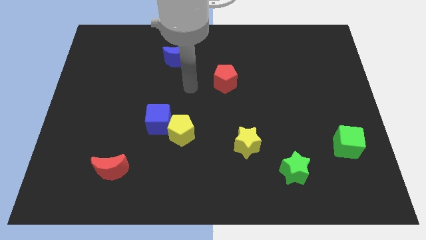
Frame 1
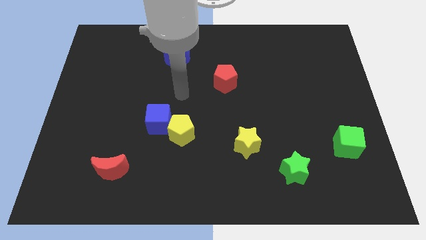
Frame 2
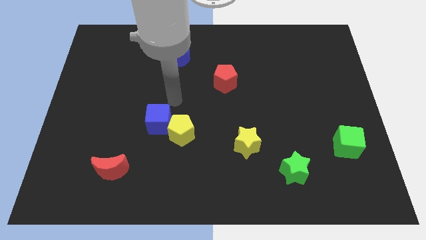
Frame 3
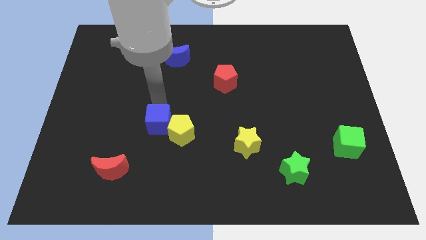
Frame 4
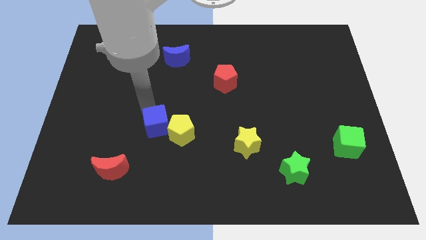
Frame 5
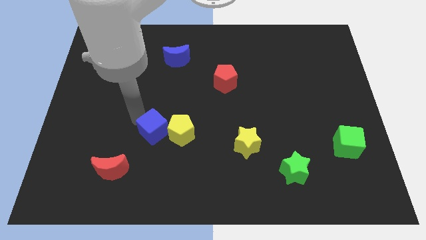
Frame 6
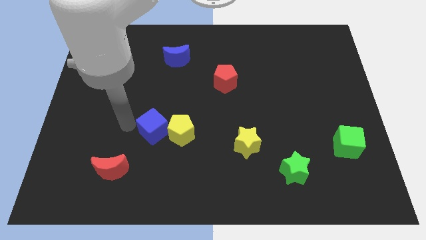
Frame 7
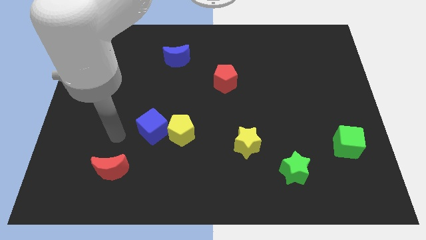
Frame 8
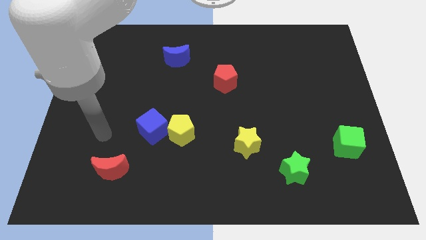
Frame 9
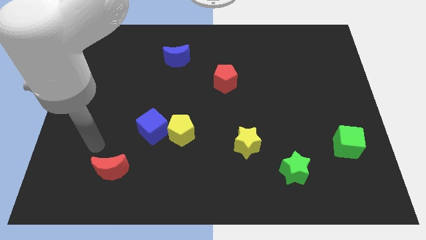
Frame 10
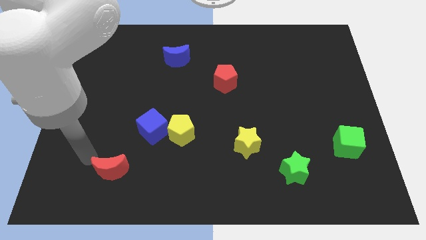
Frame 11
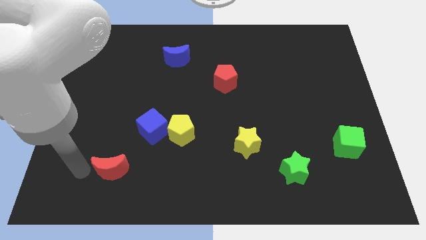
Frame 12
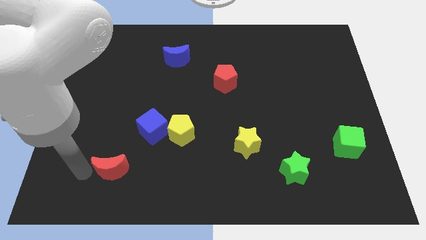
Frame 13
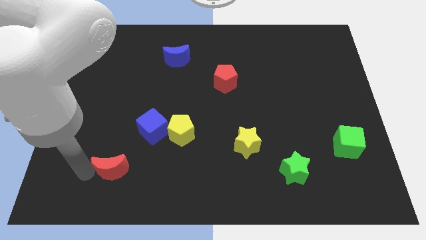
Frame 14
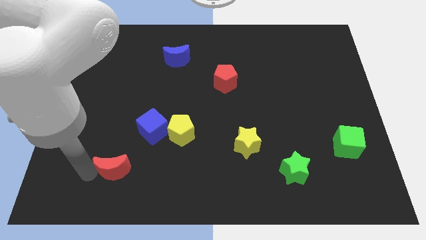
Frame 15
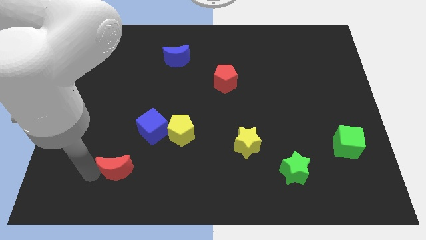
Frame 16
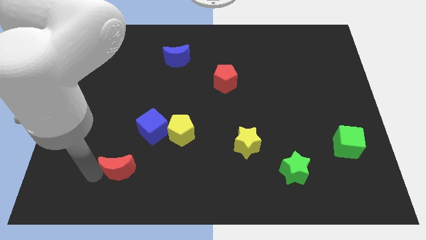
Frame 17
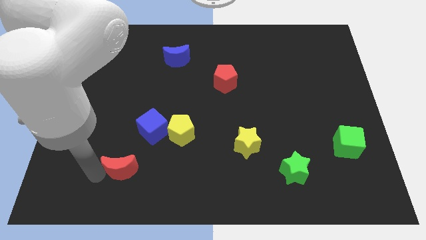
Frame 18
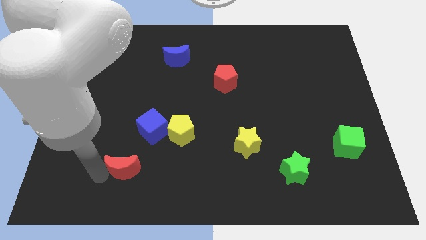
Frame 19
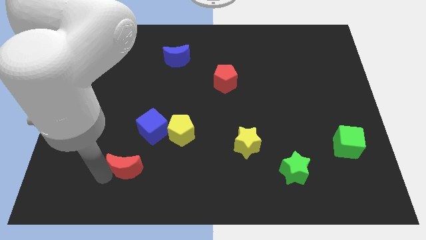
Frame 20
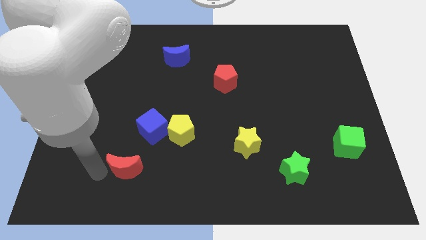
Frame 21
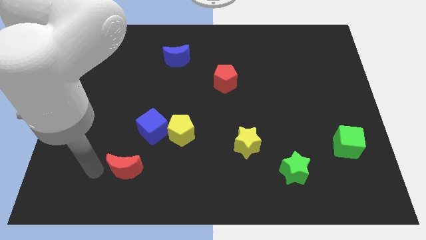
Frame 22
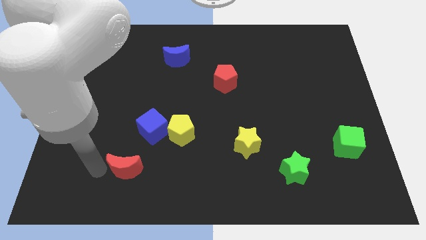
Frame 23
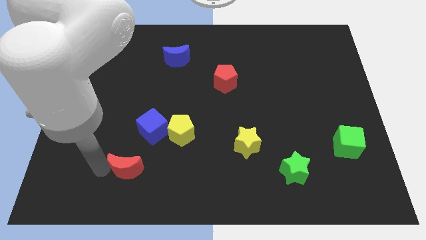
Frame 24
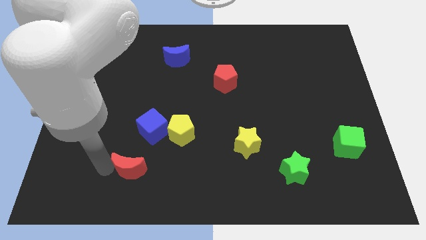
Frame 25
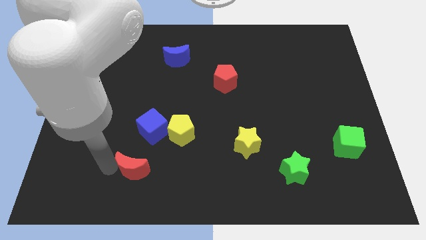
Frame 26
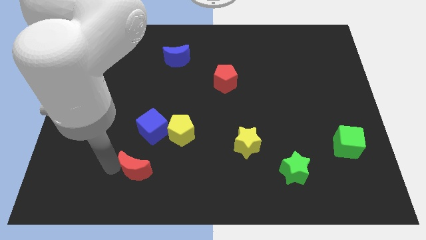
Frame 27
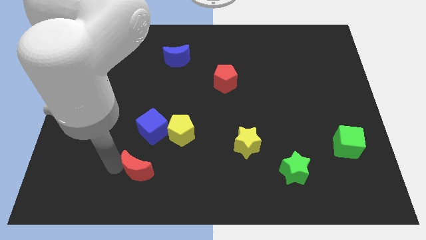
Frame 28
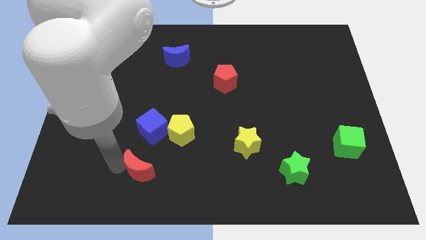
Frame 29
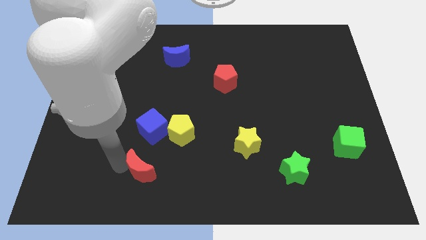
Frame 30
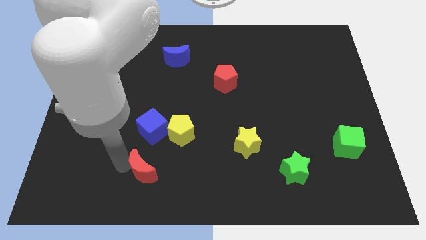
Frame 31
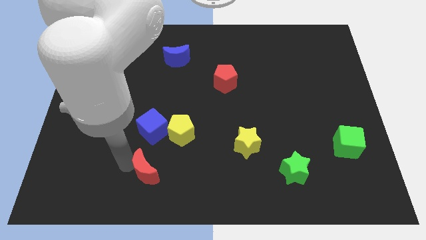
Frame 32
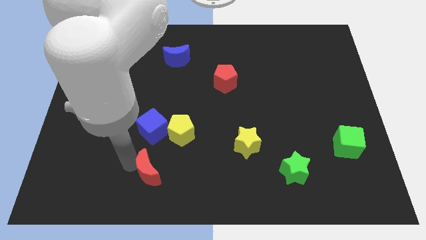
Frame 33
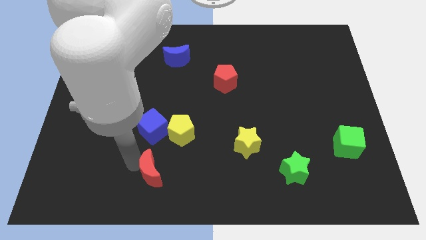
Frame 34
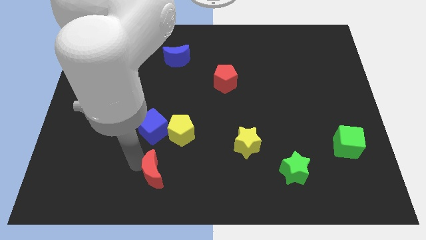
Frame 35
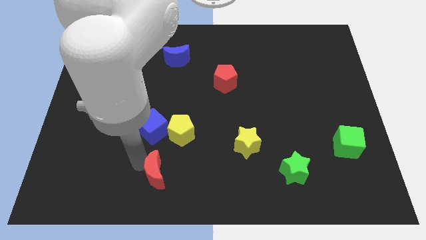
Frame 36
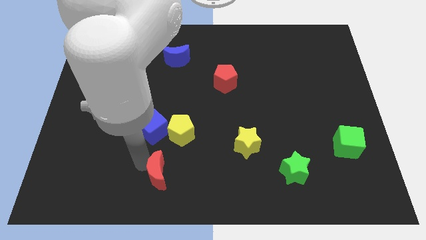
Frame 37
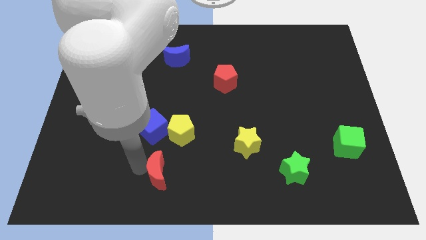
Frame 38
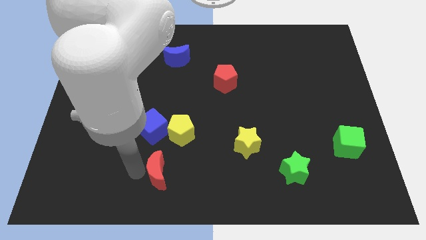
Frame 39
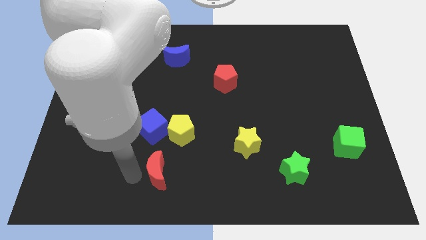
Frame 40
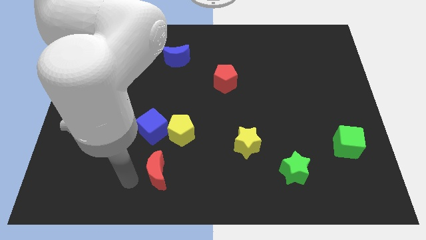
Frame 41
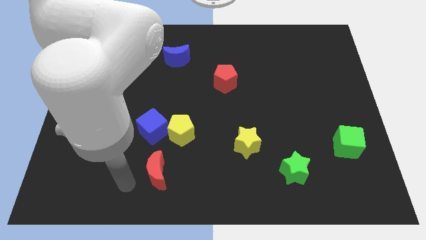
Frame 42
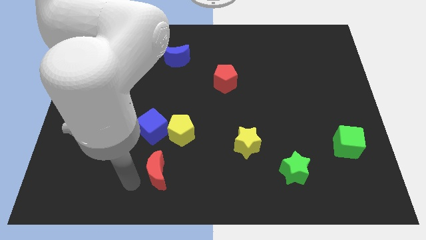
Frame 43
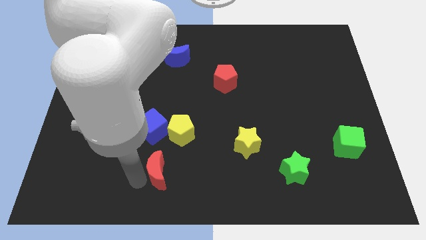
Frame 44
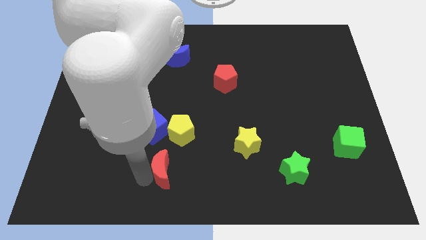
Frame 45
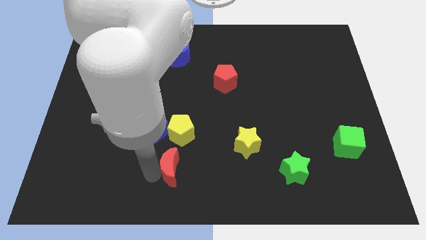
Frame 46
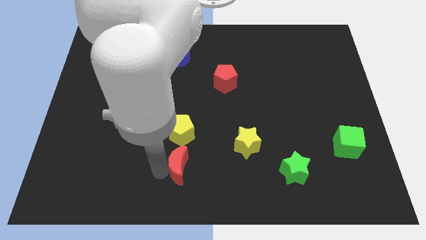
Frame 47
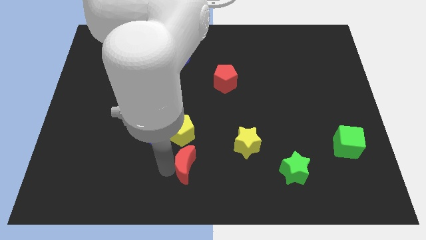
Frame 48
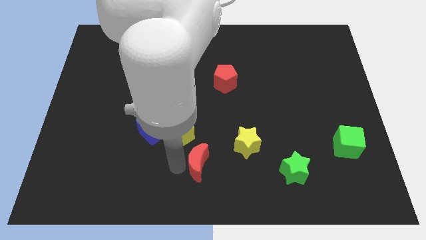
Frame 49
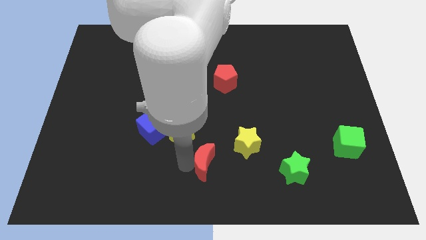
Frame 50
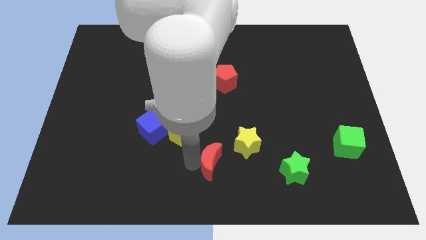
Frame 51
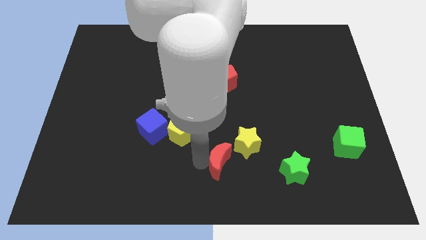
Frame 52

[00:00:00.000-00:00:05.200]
push the red moon to the left of the green star

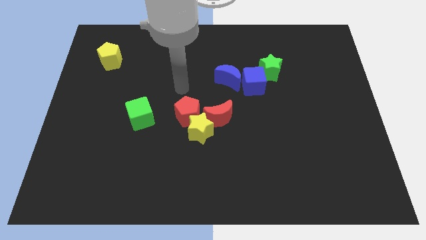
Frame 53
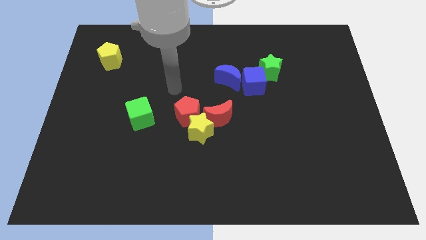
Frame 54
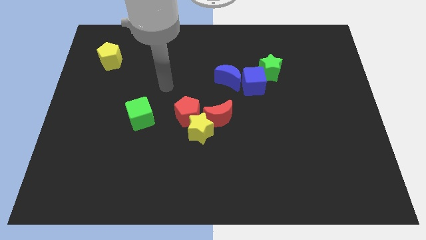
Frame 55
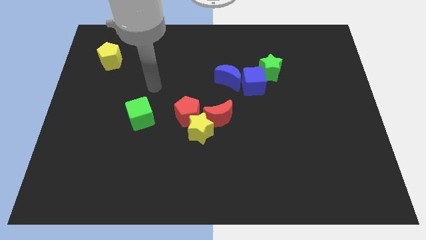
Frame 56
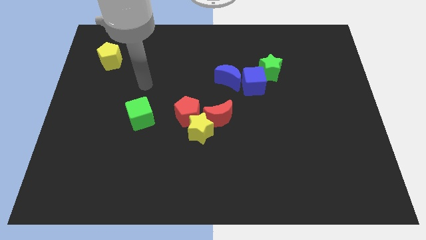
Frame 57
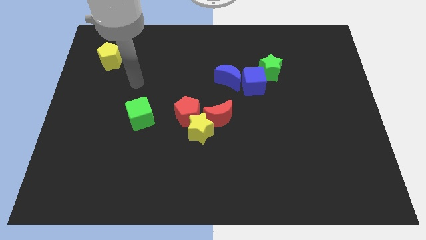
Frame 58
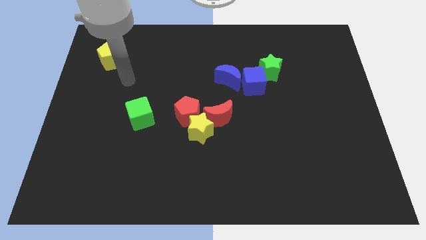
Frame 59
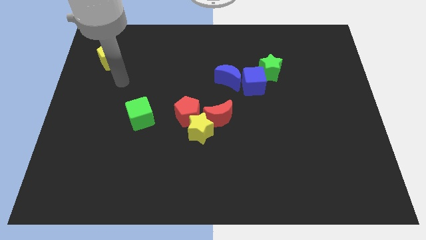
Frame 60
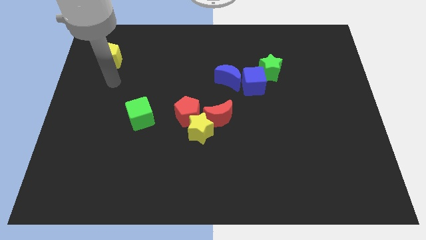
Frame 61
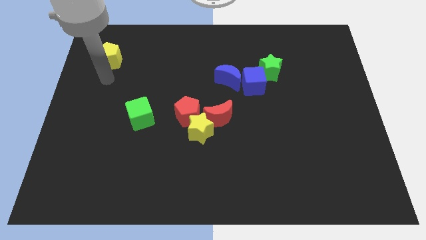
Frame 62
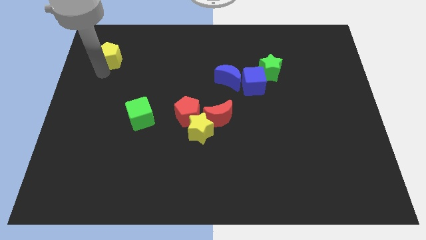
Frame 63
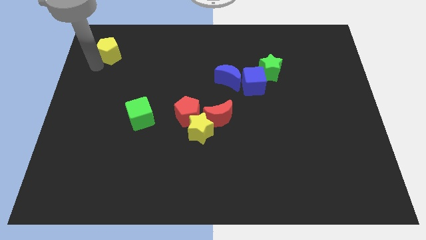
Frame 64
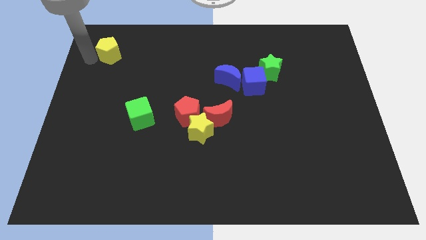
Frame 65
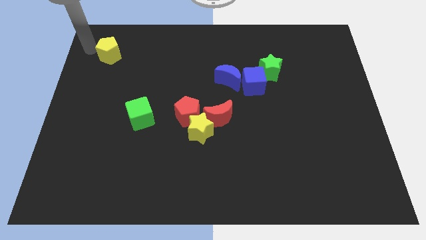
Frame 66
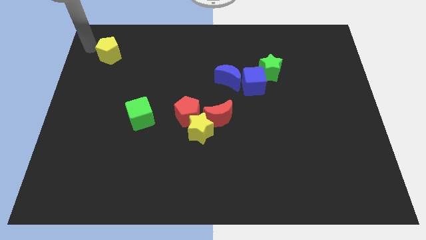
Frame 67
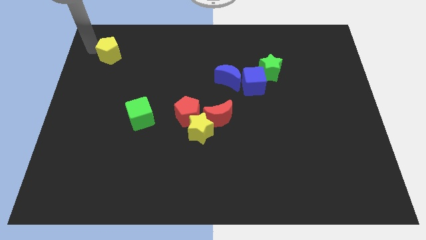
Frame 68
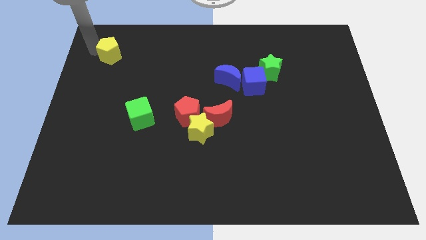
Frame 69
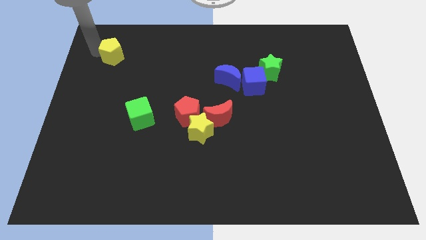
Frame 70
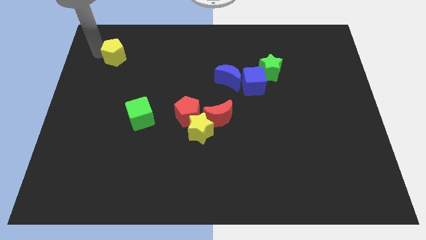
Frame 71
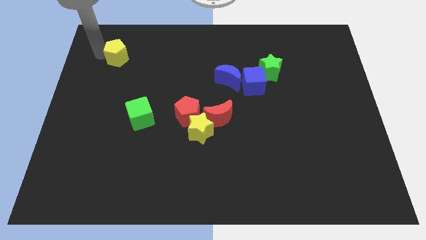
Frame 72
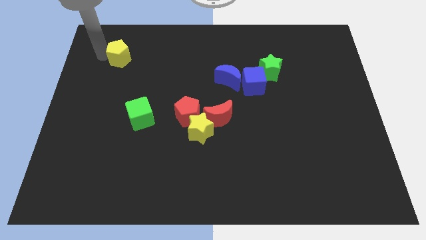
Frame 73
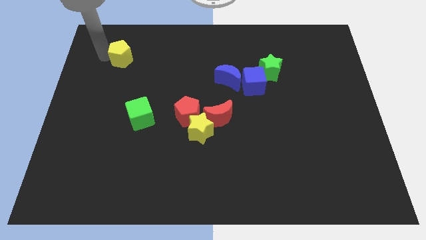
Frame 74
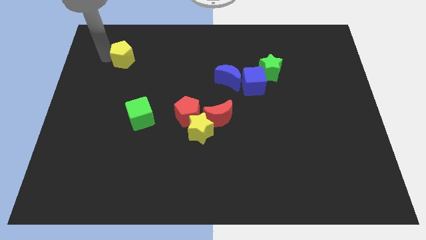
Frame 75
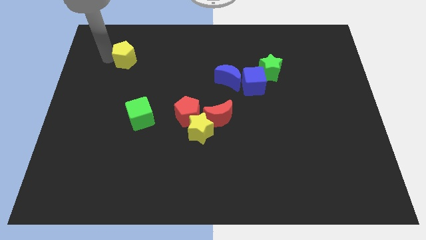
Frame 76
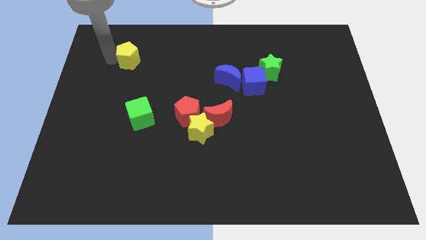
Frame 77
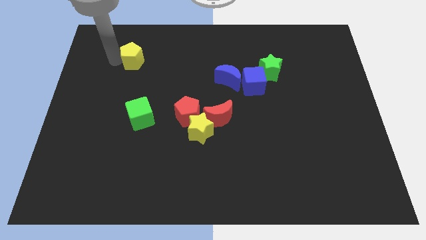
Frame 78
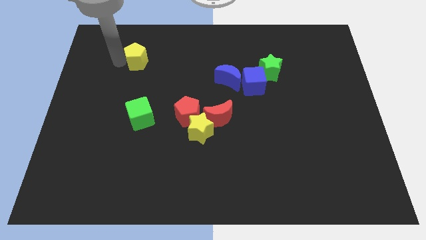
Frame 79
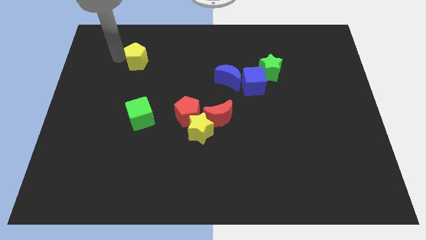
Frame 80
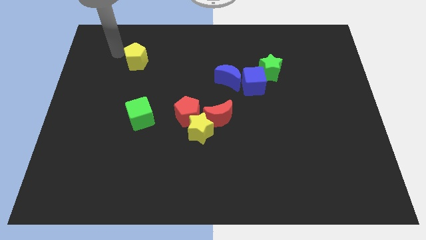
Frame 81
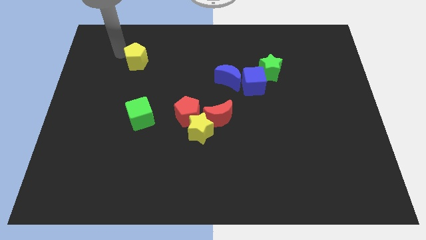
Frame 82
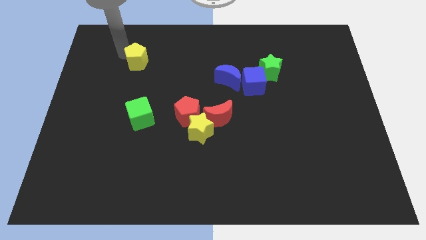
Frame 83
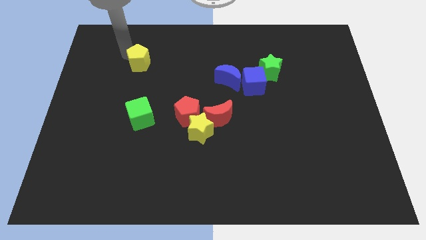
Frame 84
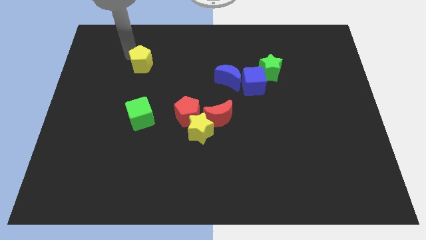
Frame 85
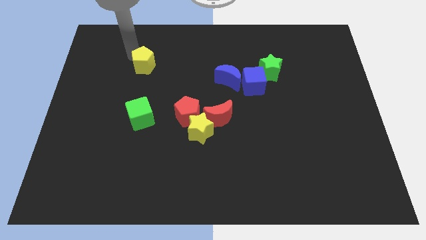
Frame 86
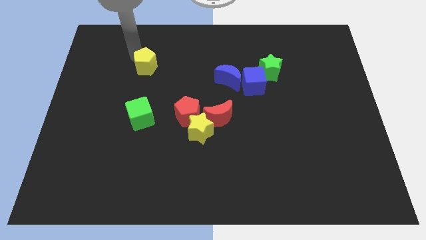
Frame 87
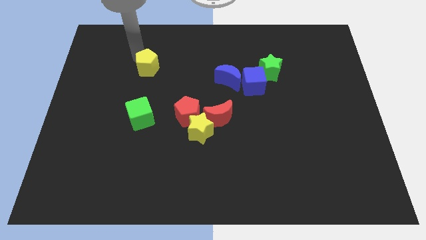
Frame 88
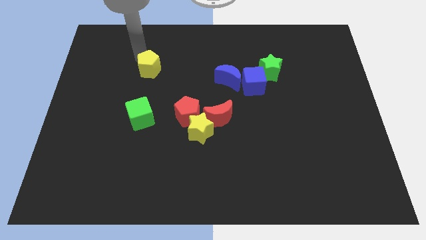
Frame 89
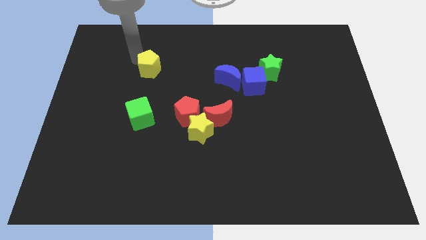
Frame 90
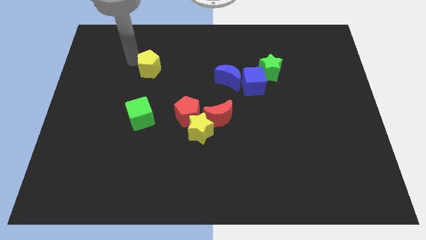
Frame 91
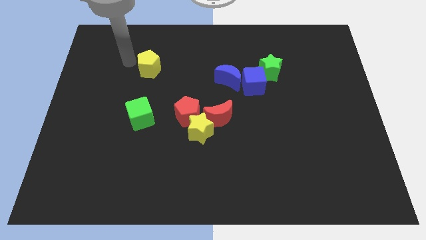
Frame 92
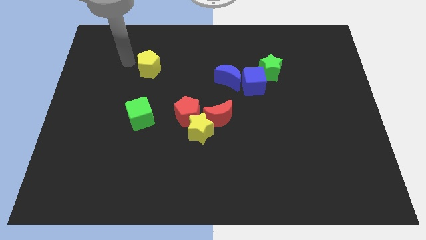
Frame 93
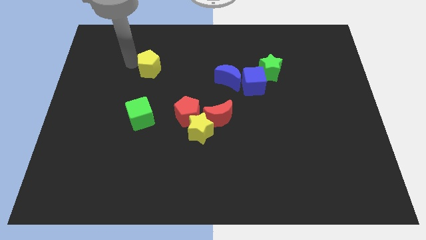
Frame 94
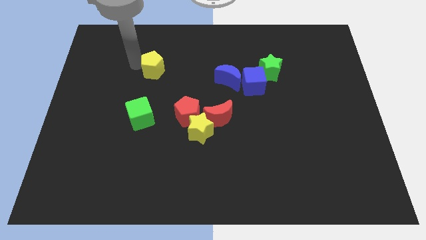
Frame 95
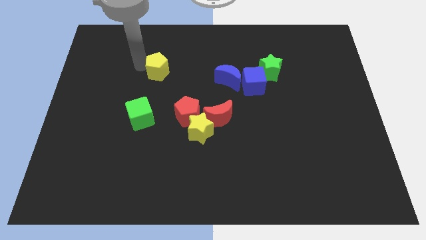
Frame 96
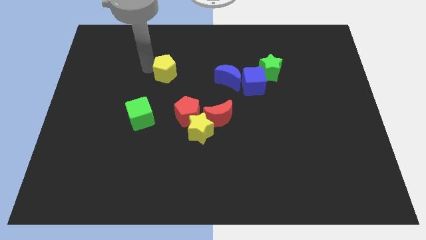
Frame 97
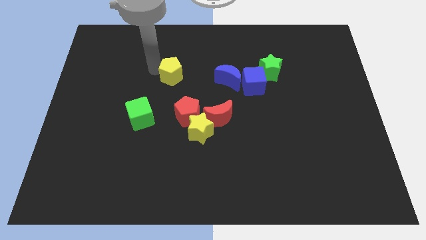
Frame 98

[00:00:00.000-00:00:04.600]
slide the yellow pentagon to the left of the blue moon
